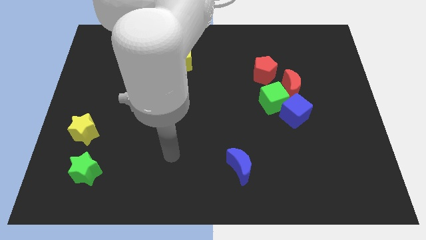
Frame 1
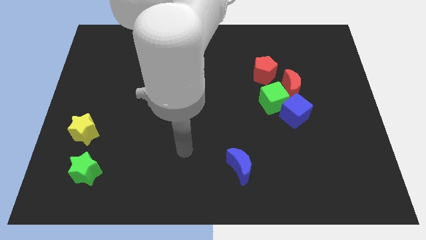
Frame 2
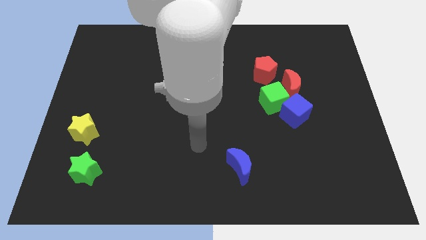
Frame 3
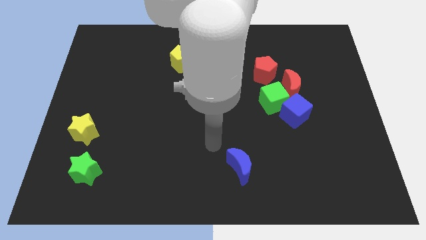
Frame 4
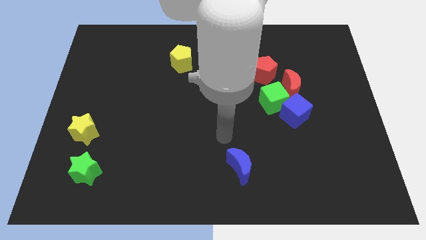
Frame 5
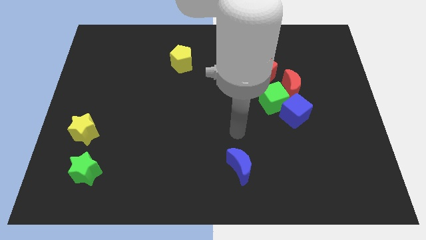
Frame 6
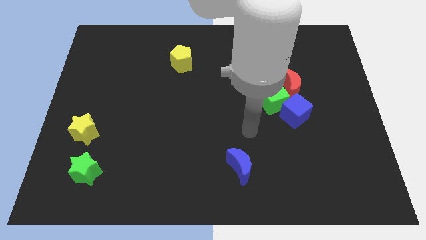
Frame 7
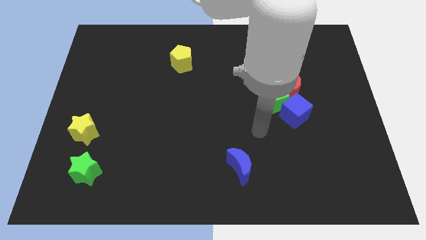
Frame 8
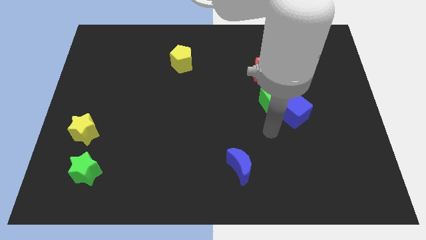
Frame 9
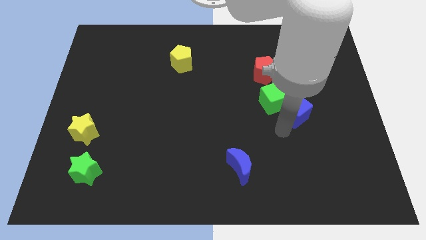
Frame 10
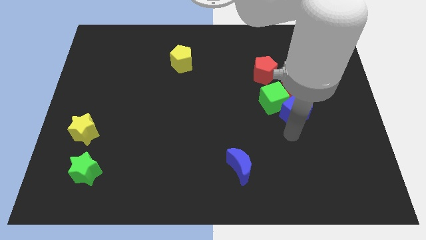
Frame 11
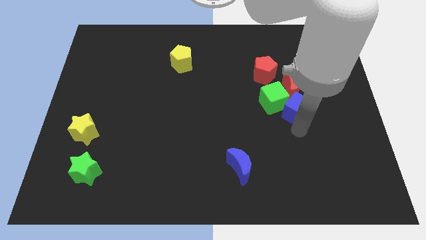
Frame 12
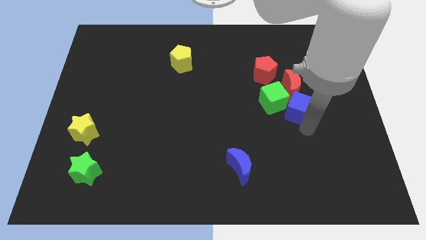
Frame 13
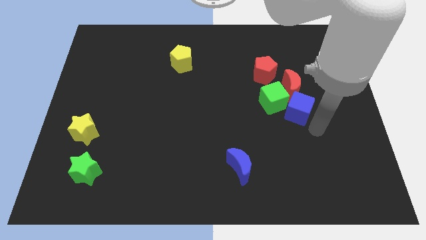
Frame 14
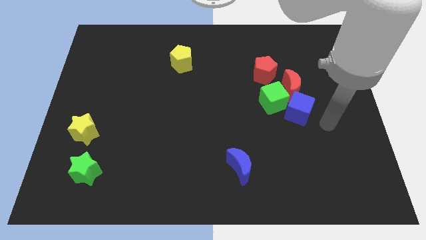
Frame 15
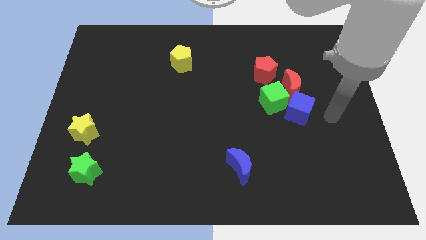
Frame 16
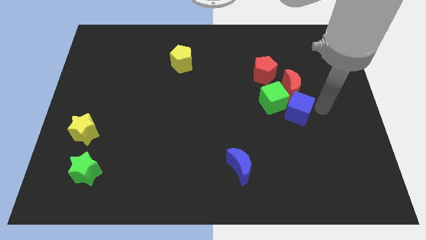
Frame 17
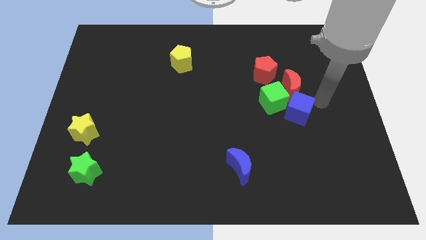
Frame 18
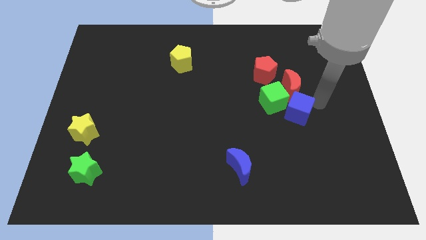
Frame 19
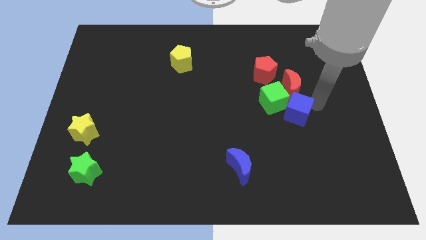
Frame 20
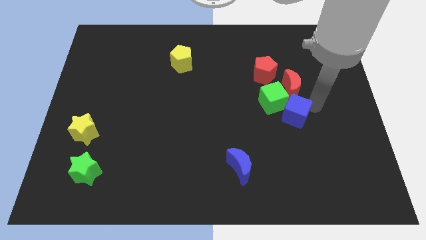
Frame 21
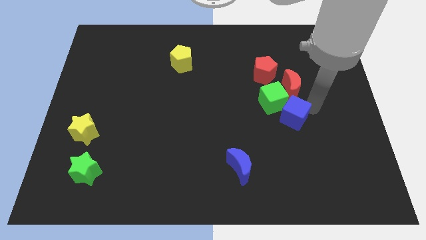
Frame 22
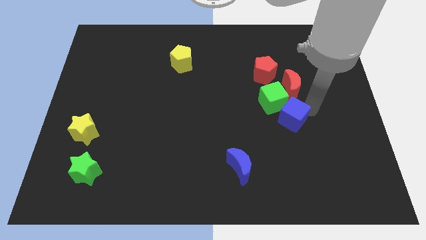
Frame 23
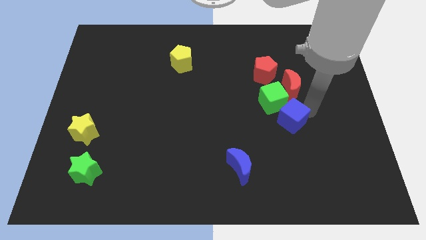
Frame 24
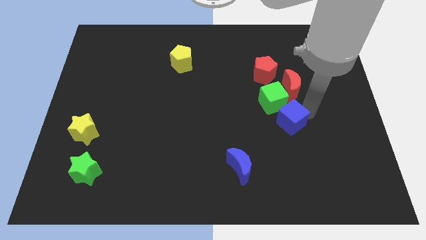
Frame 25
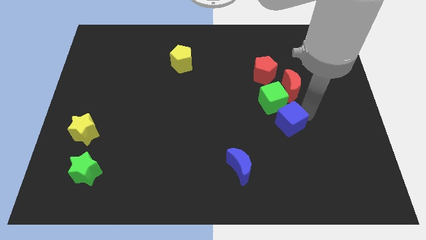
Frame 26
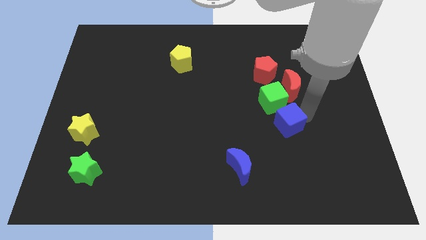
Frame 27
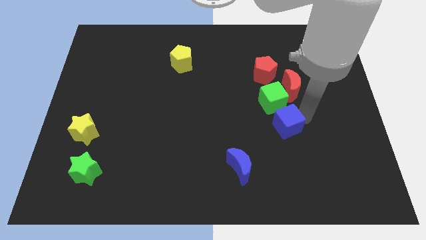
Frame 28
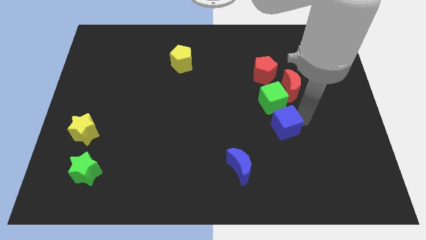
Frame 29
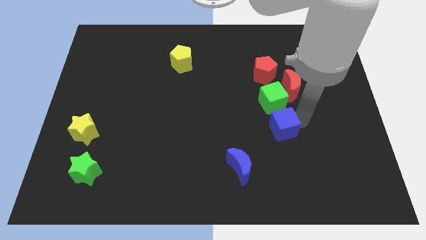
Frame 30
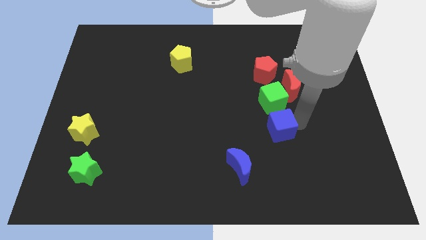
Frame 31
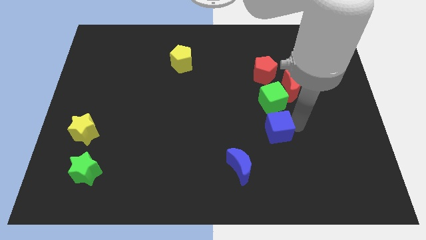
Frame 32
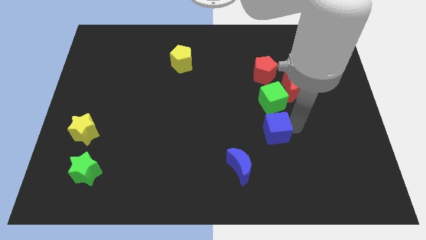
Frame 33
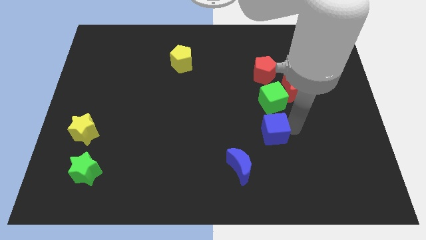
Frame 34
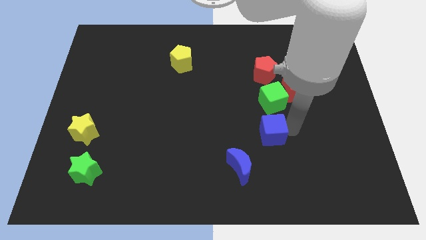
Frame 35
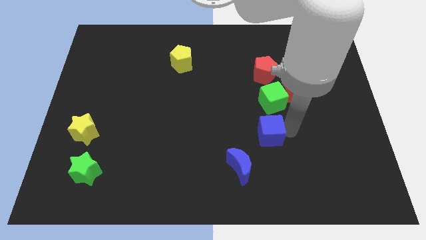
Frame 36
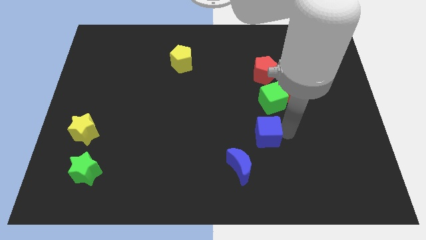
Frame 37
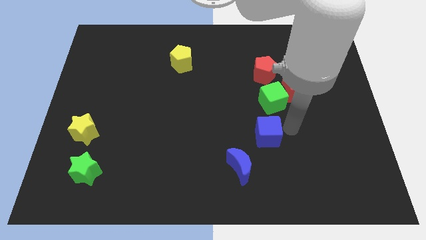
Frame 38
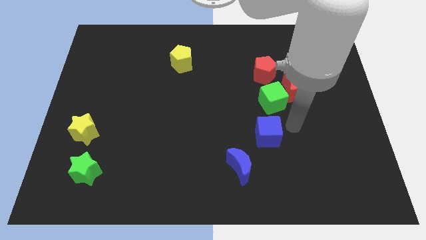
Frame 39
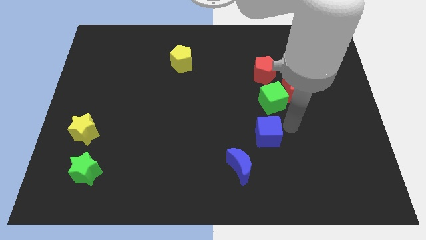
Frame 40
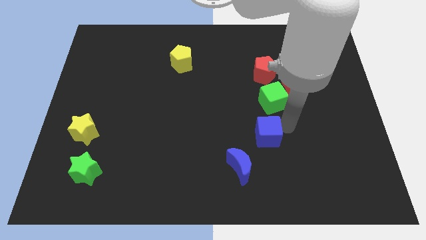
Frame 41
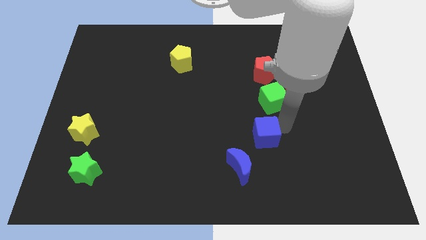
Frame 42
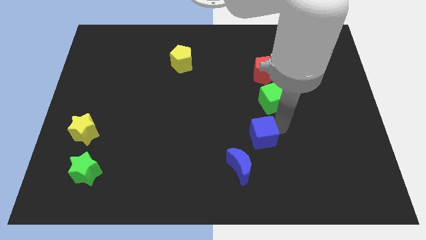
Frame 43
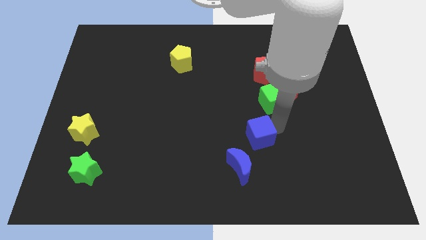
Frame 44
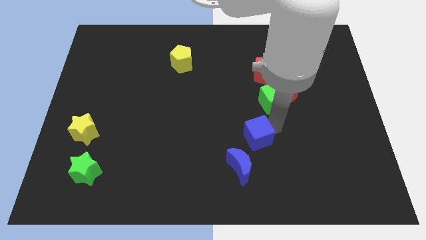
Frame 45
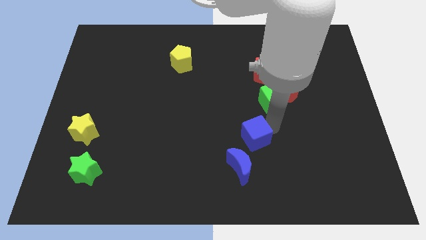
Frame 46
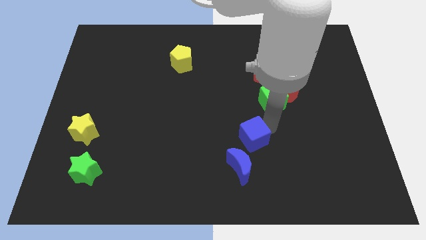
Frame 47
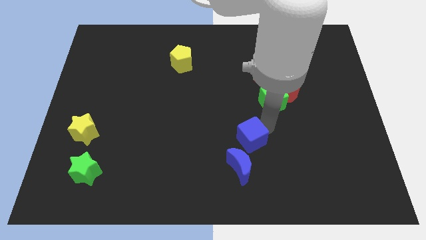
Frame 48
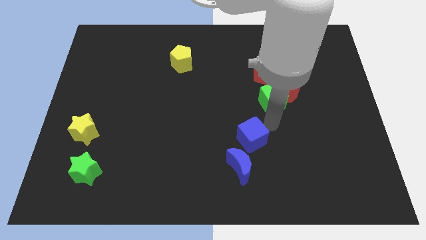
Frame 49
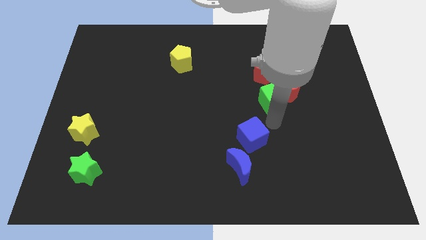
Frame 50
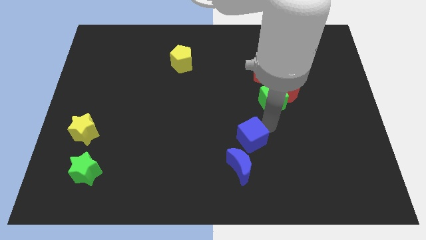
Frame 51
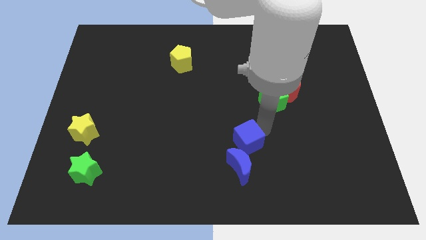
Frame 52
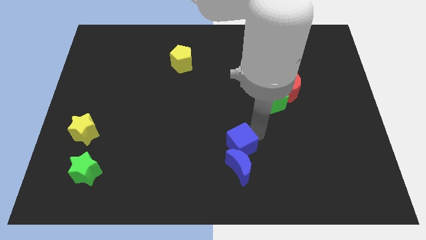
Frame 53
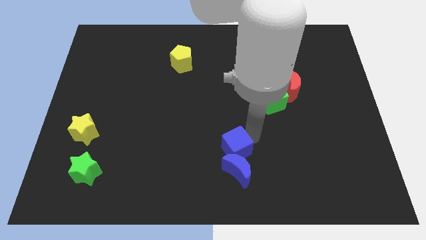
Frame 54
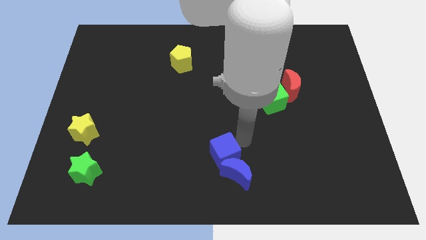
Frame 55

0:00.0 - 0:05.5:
push the blue cube to the bottom side

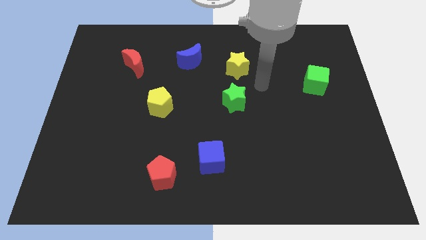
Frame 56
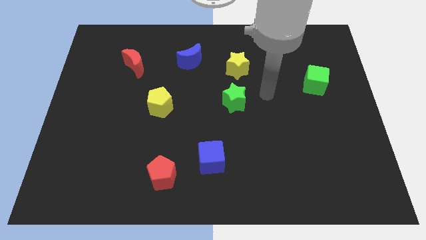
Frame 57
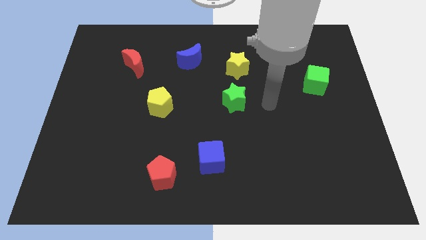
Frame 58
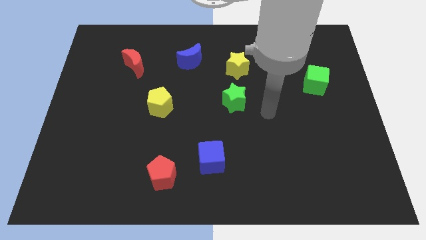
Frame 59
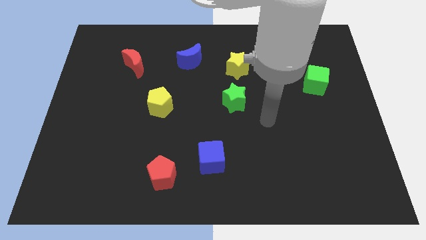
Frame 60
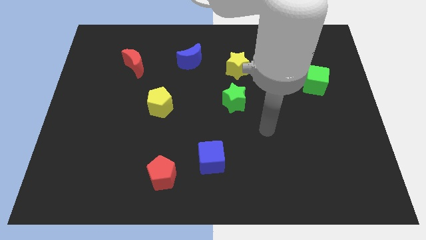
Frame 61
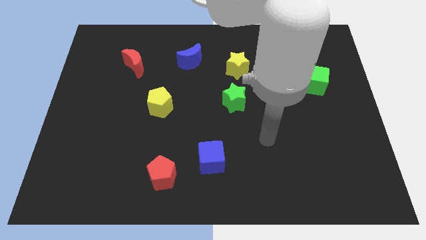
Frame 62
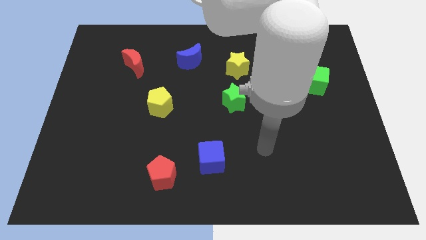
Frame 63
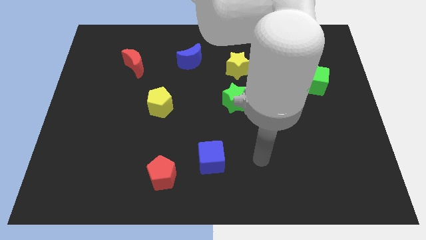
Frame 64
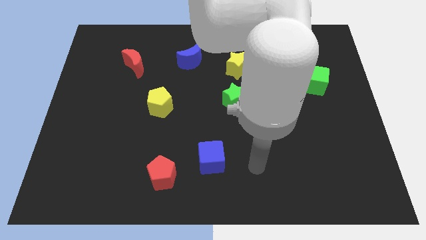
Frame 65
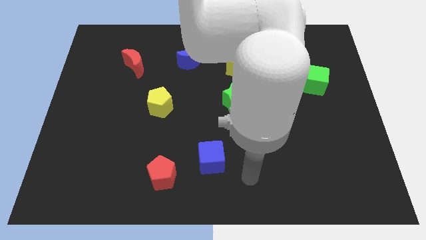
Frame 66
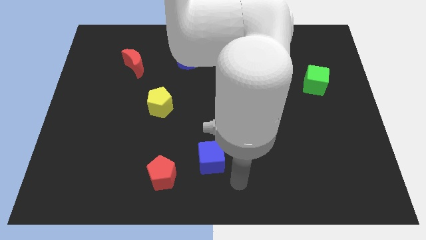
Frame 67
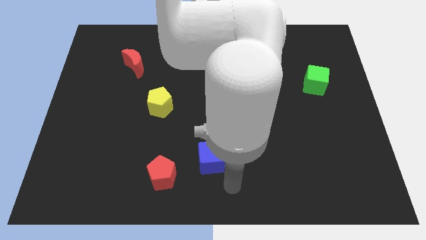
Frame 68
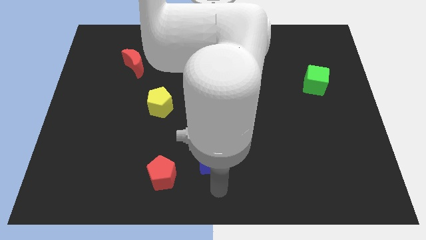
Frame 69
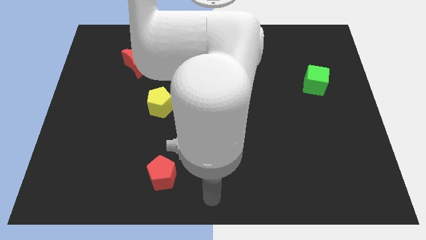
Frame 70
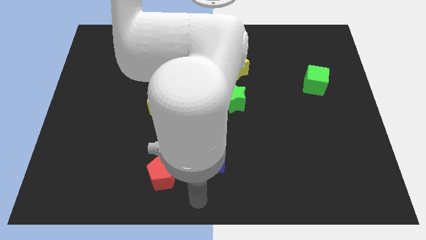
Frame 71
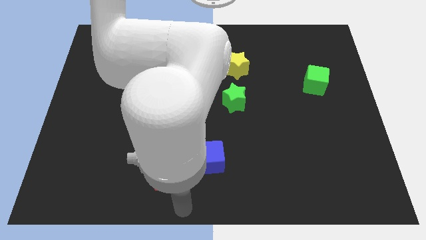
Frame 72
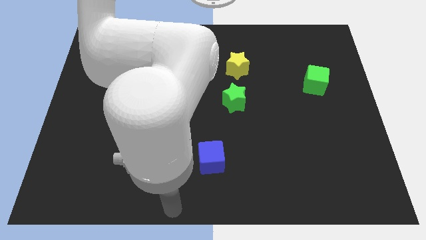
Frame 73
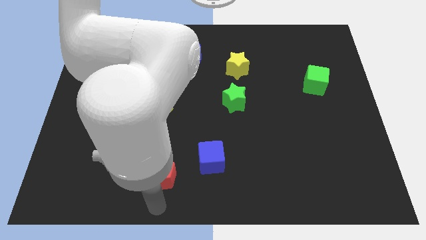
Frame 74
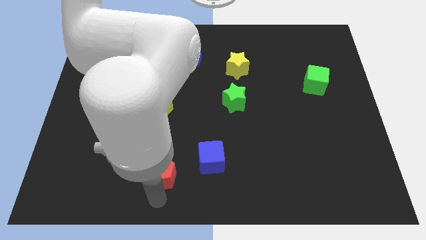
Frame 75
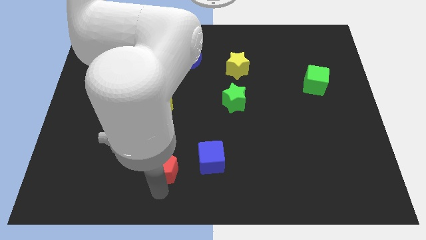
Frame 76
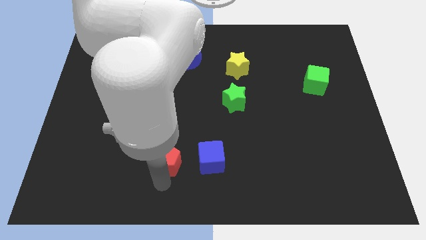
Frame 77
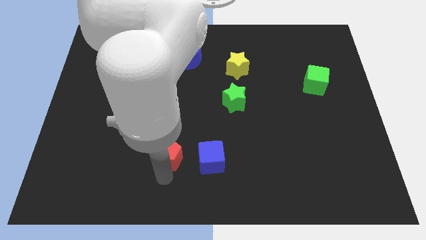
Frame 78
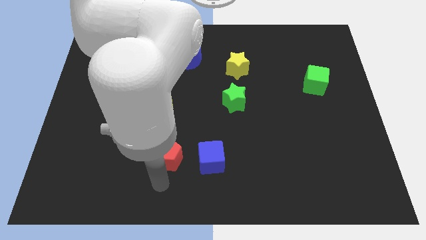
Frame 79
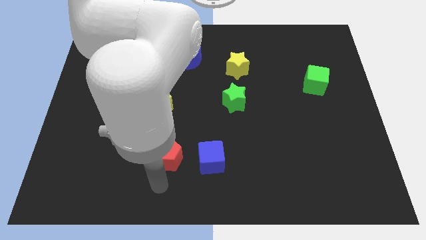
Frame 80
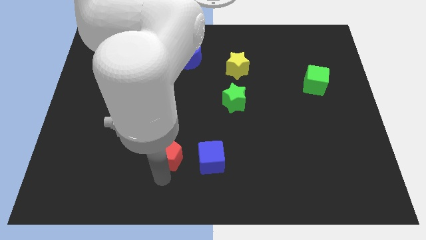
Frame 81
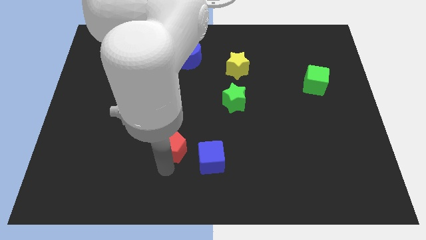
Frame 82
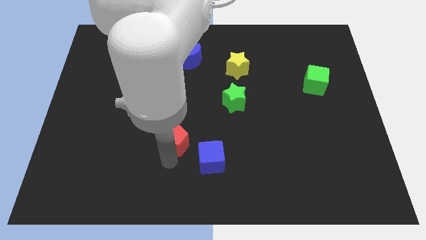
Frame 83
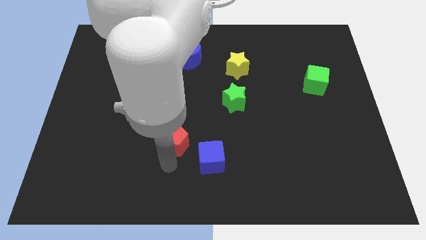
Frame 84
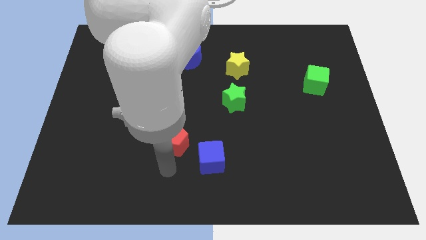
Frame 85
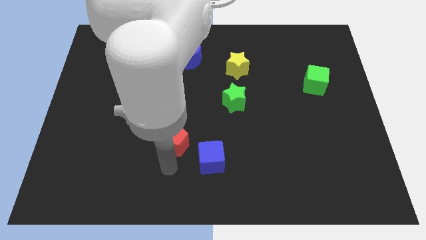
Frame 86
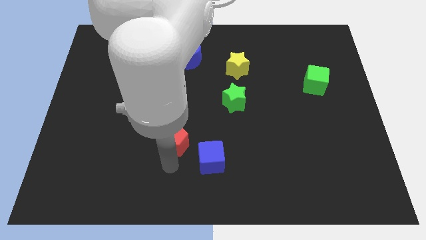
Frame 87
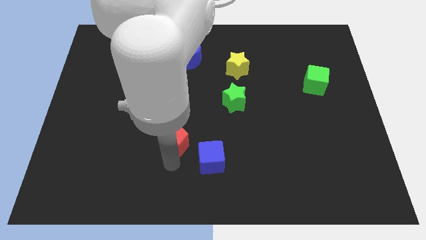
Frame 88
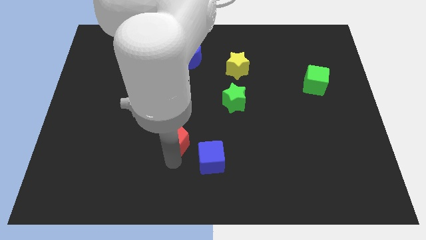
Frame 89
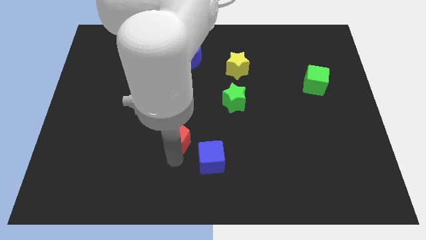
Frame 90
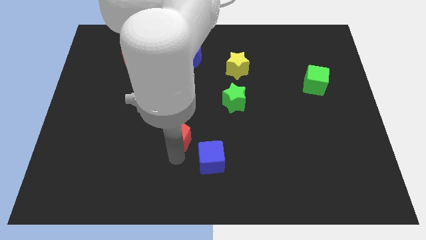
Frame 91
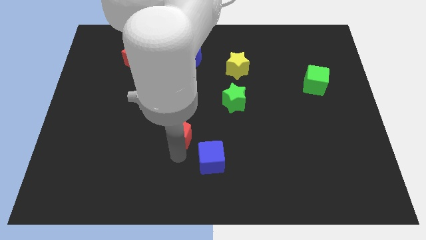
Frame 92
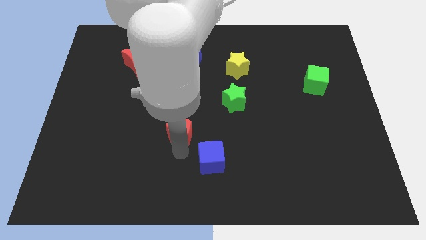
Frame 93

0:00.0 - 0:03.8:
put the red pentagon to the middle of the board
